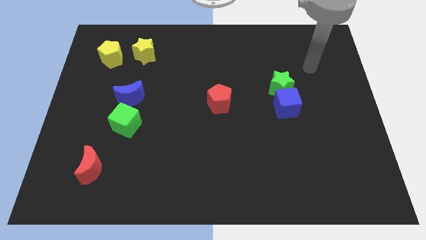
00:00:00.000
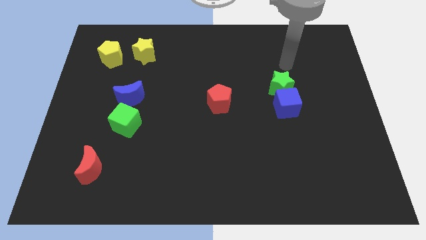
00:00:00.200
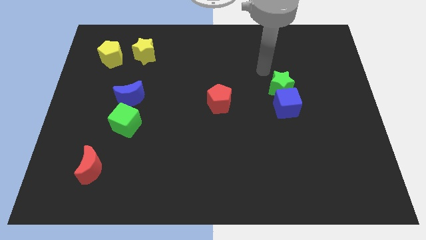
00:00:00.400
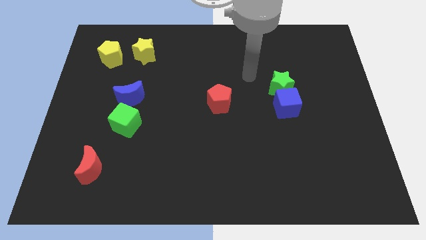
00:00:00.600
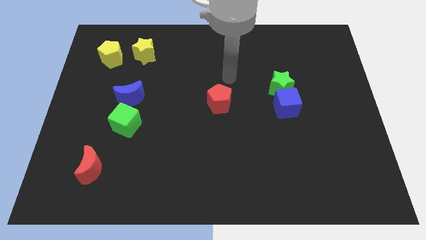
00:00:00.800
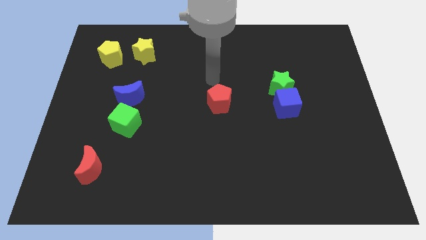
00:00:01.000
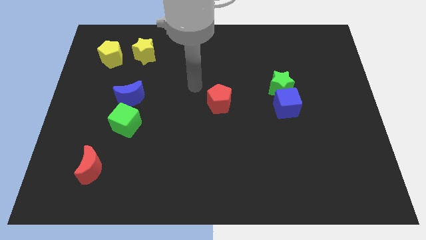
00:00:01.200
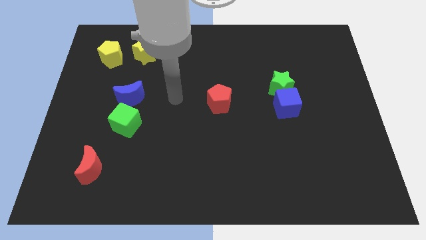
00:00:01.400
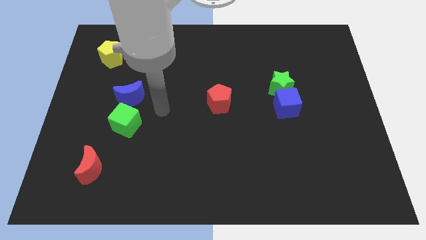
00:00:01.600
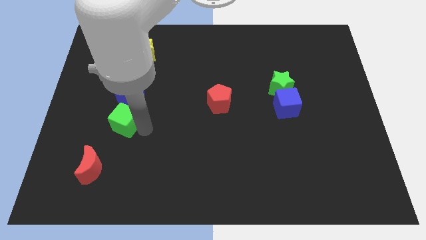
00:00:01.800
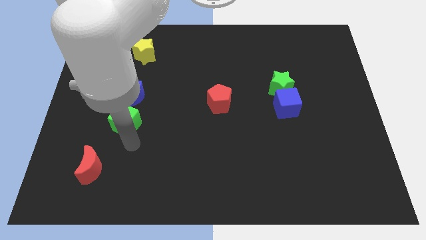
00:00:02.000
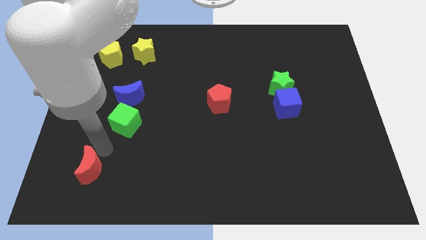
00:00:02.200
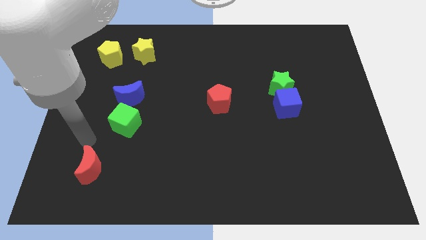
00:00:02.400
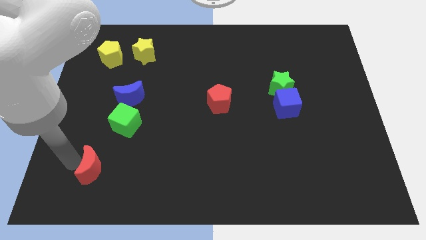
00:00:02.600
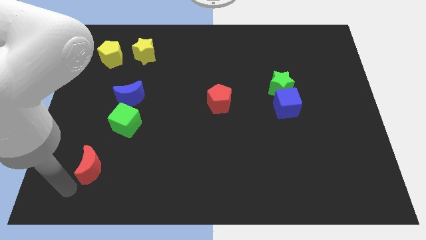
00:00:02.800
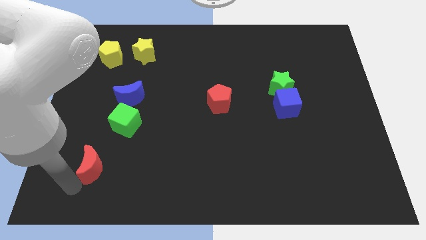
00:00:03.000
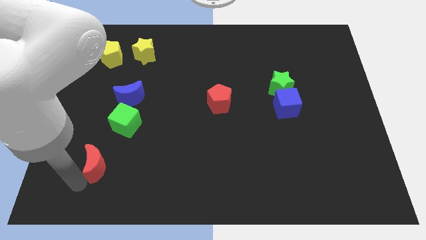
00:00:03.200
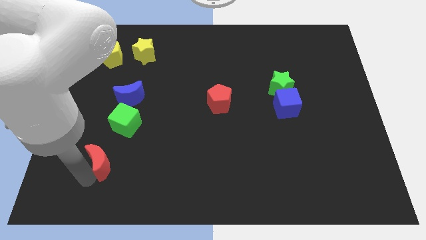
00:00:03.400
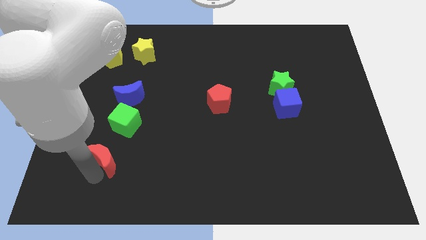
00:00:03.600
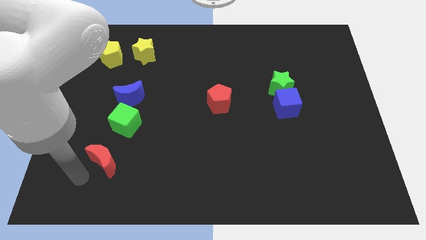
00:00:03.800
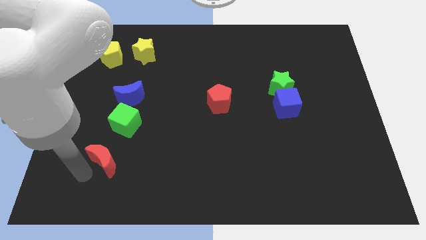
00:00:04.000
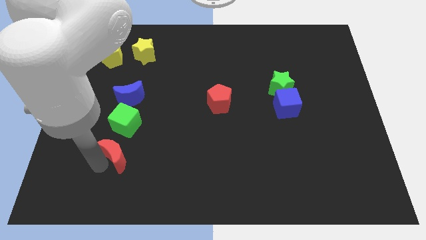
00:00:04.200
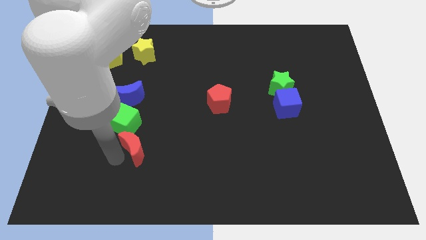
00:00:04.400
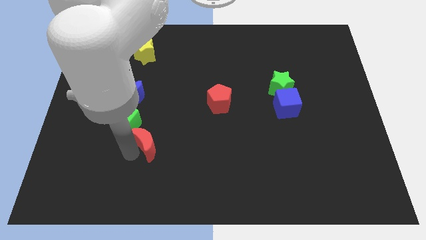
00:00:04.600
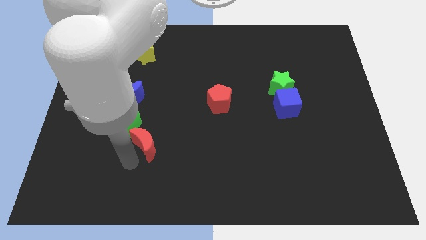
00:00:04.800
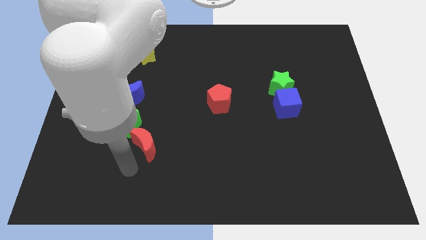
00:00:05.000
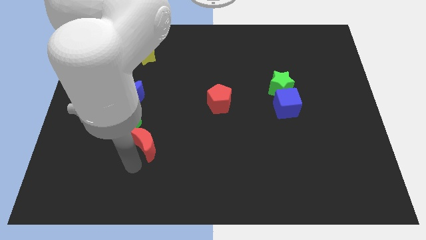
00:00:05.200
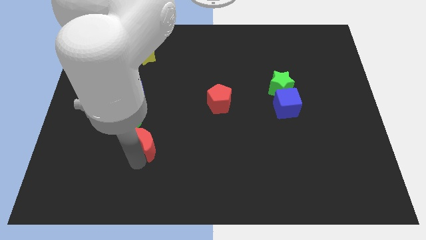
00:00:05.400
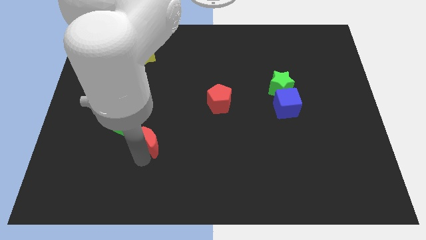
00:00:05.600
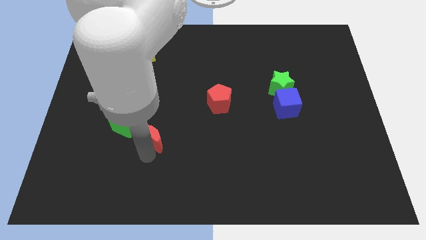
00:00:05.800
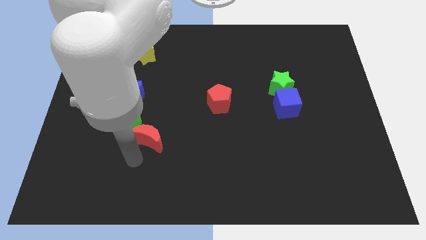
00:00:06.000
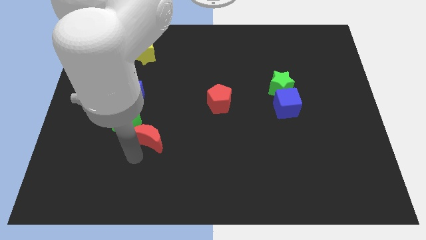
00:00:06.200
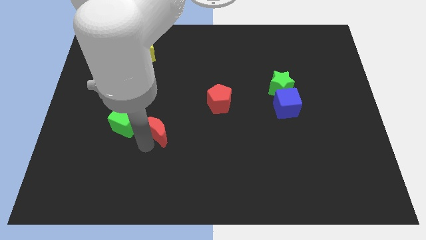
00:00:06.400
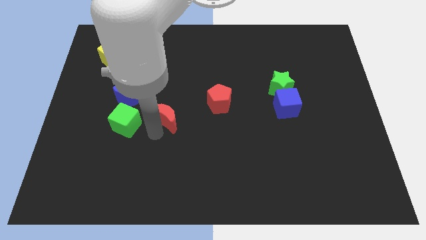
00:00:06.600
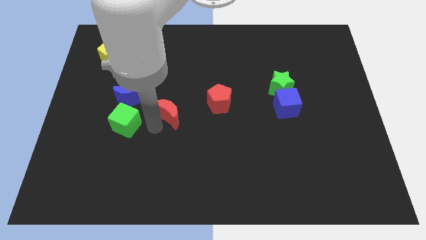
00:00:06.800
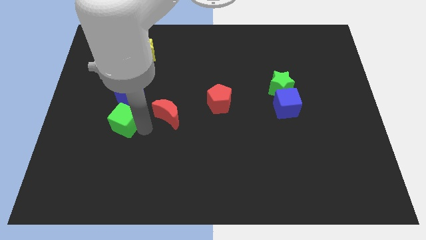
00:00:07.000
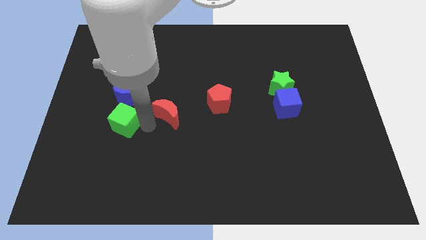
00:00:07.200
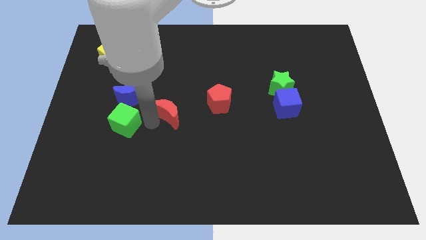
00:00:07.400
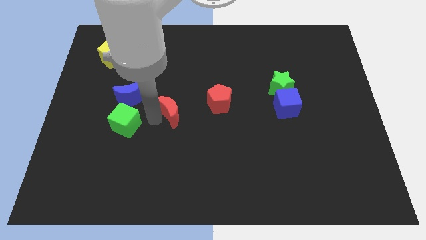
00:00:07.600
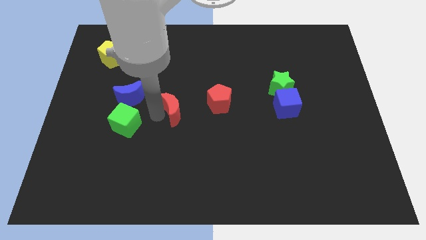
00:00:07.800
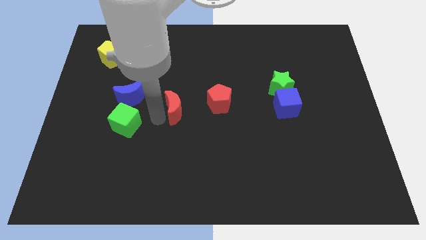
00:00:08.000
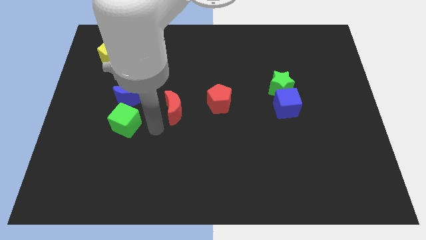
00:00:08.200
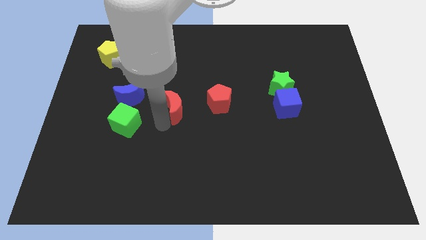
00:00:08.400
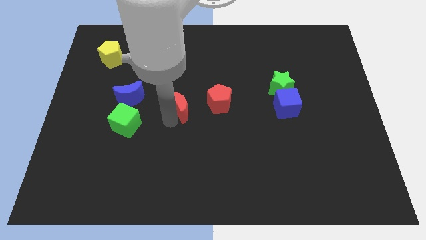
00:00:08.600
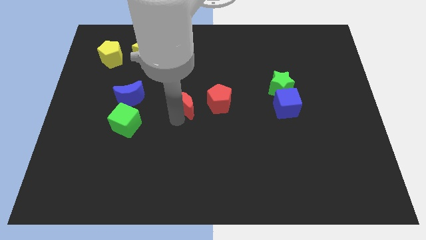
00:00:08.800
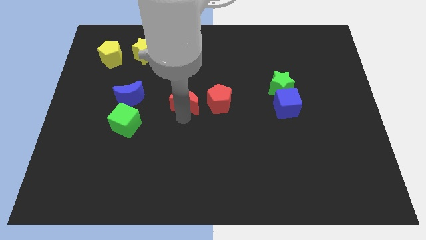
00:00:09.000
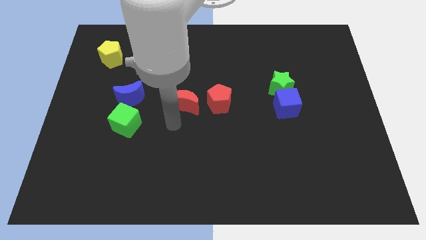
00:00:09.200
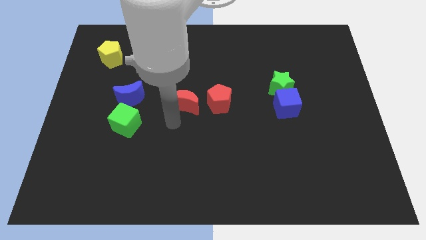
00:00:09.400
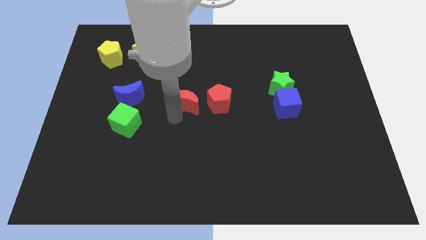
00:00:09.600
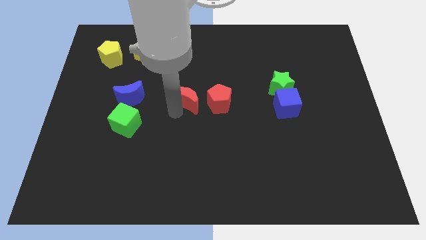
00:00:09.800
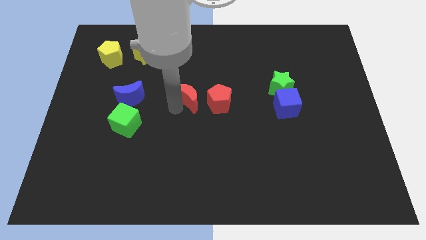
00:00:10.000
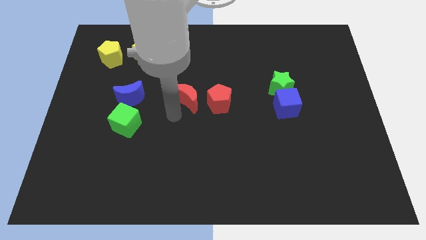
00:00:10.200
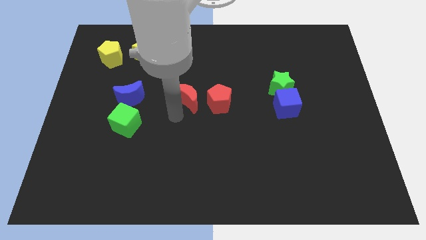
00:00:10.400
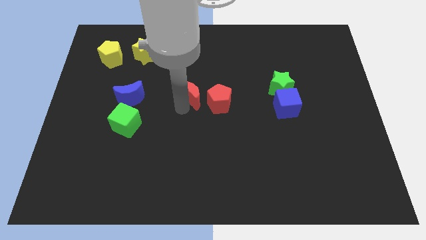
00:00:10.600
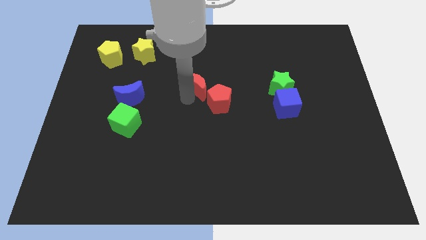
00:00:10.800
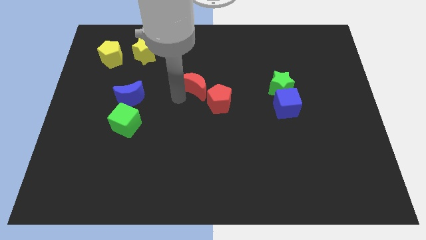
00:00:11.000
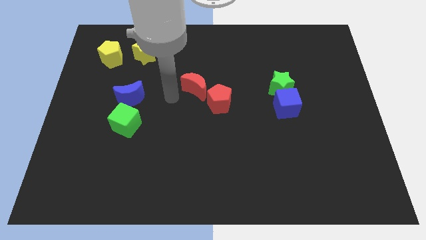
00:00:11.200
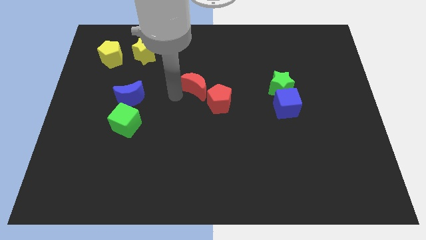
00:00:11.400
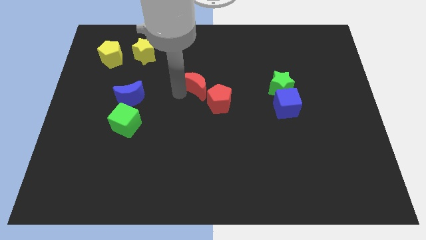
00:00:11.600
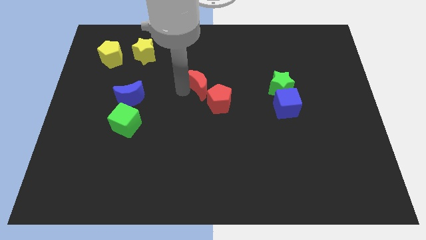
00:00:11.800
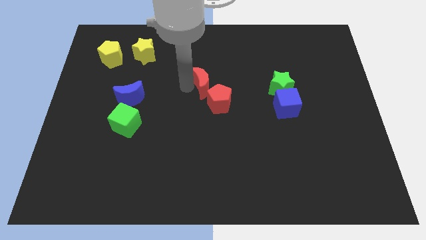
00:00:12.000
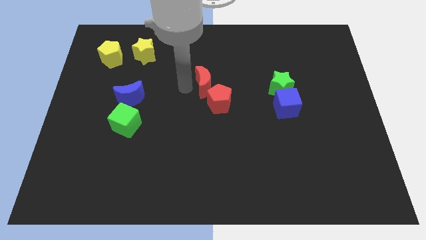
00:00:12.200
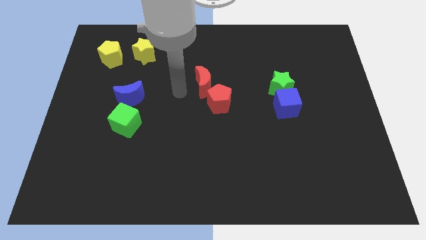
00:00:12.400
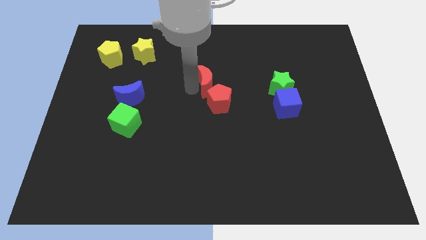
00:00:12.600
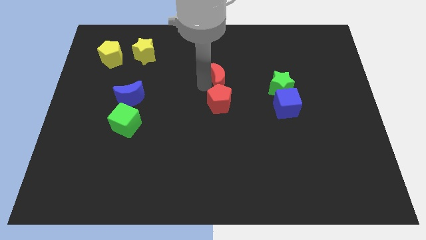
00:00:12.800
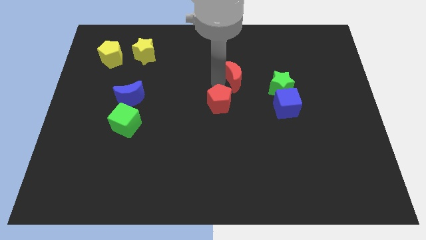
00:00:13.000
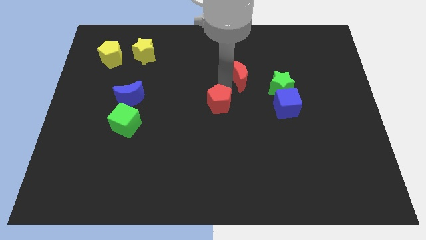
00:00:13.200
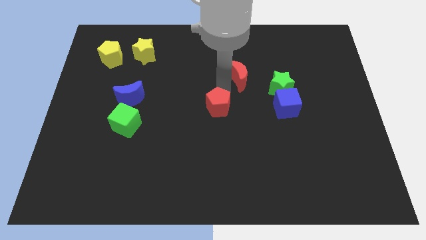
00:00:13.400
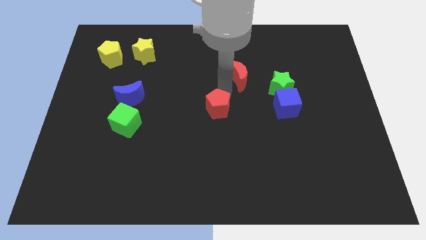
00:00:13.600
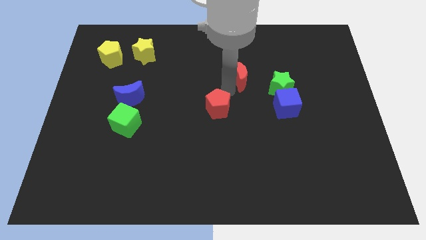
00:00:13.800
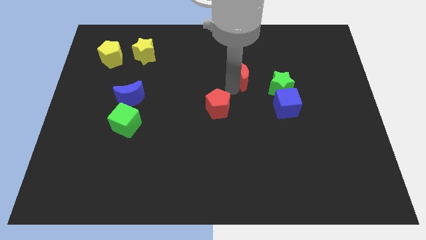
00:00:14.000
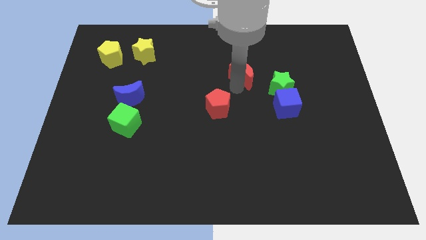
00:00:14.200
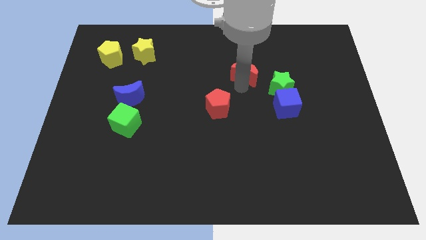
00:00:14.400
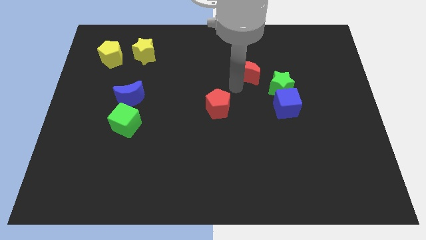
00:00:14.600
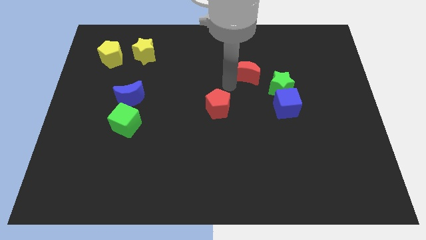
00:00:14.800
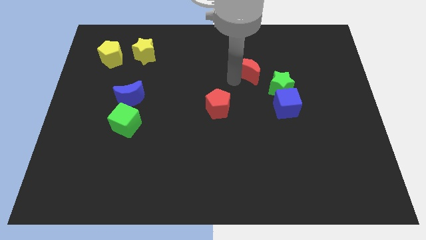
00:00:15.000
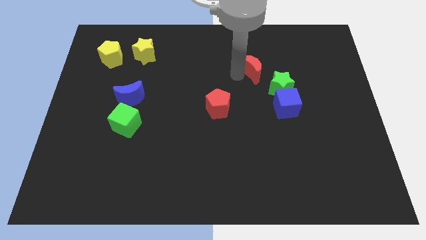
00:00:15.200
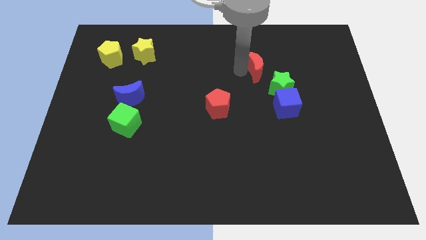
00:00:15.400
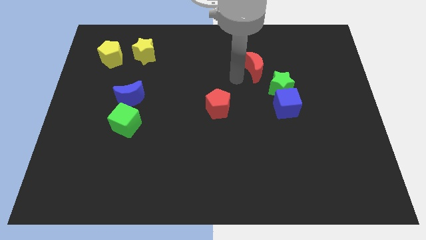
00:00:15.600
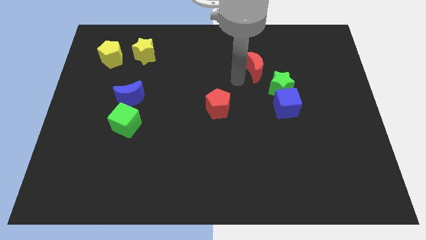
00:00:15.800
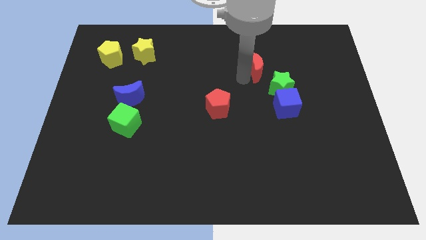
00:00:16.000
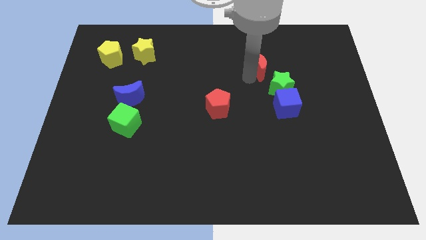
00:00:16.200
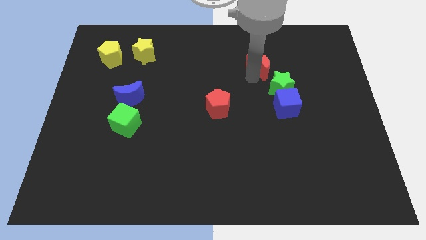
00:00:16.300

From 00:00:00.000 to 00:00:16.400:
put the red moon to the top side of the green star
